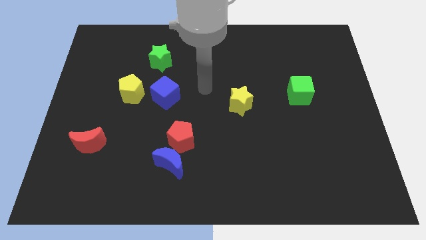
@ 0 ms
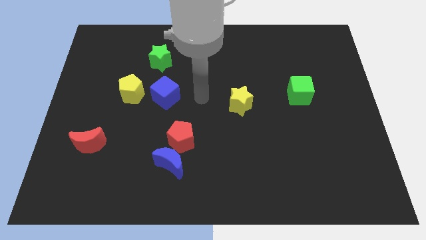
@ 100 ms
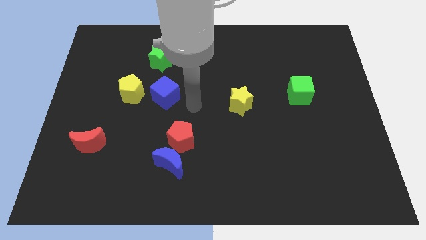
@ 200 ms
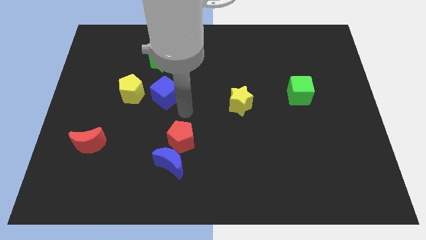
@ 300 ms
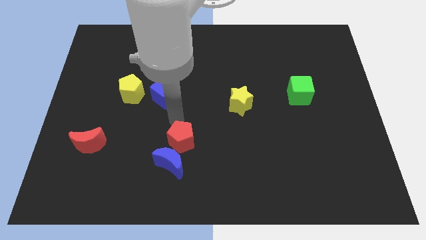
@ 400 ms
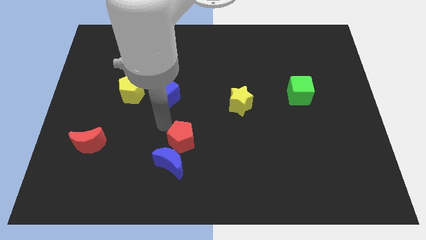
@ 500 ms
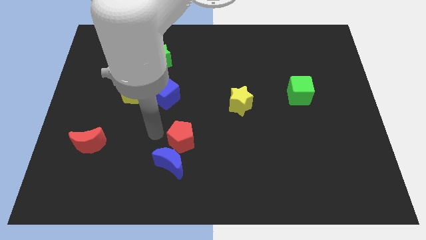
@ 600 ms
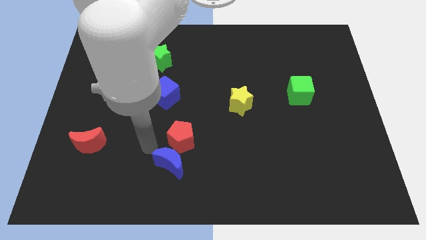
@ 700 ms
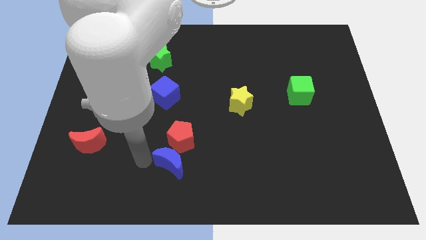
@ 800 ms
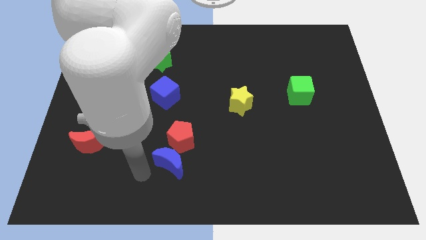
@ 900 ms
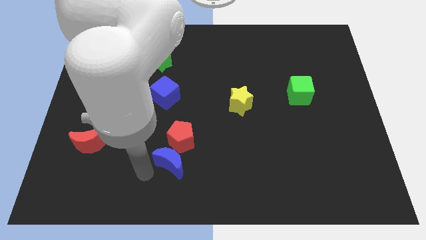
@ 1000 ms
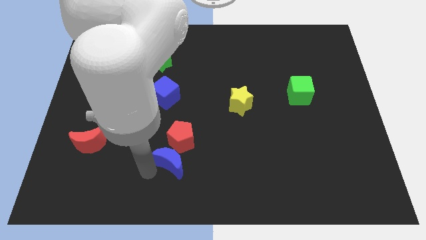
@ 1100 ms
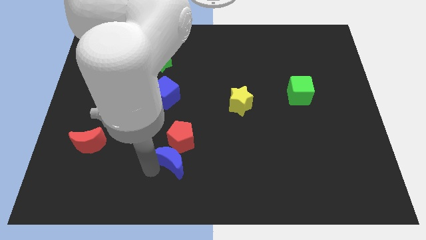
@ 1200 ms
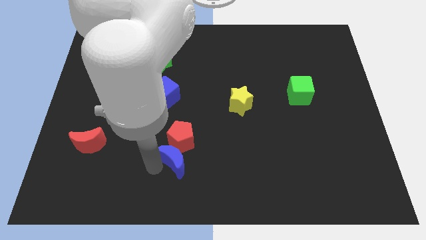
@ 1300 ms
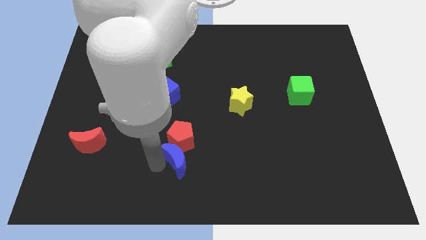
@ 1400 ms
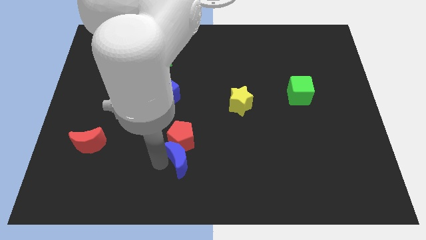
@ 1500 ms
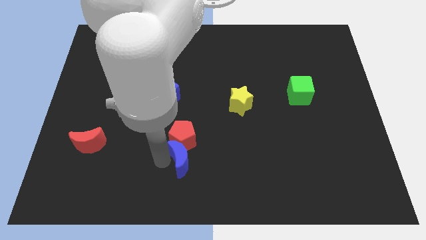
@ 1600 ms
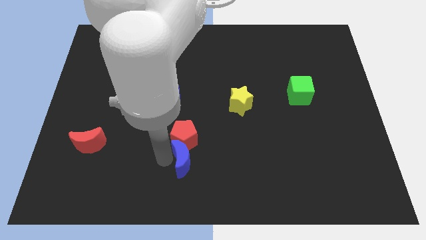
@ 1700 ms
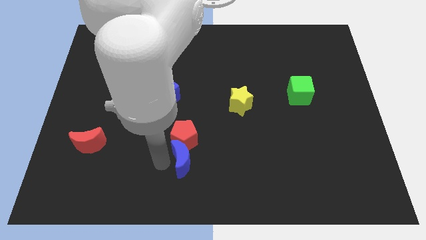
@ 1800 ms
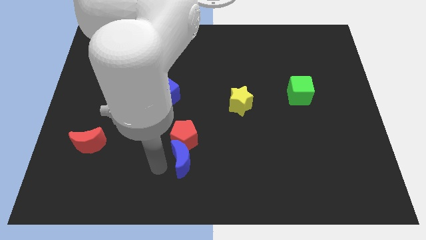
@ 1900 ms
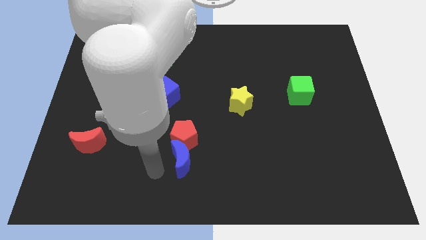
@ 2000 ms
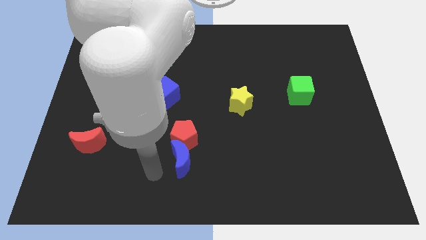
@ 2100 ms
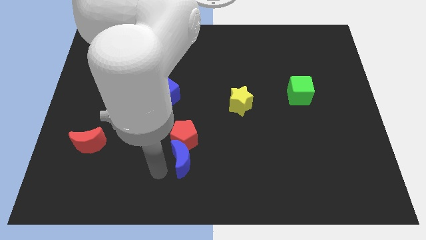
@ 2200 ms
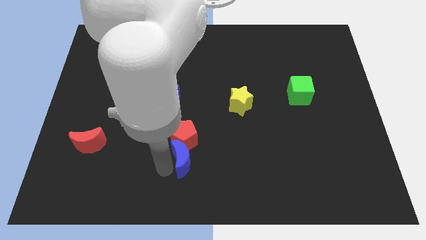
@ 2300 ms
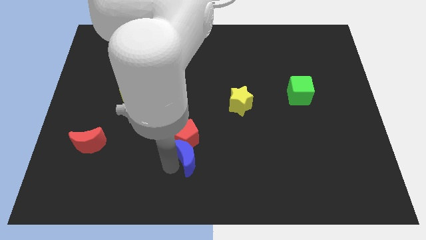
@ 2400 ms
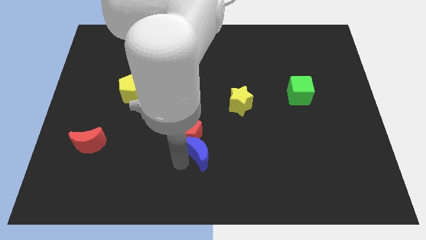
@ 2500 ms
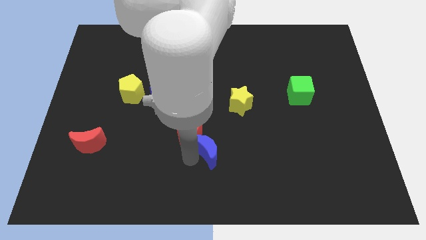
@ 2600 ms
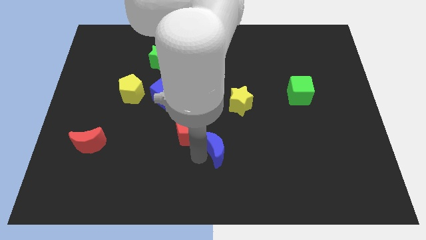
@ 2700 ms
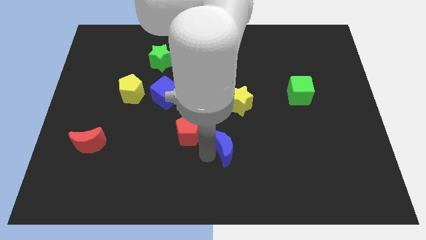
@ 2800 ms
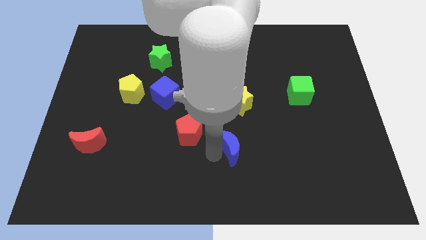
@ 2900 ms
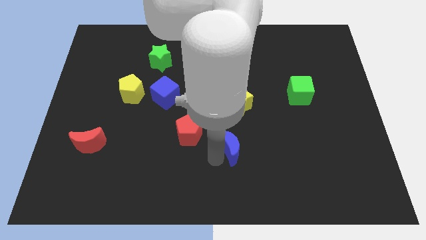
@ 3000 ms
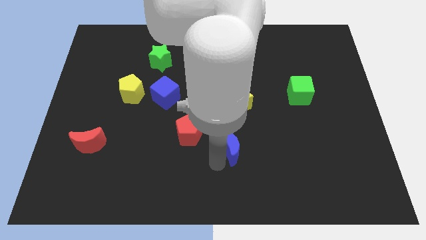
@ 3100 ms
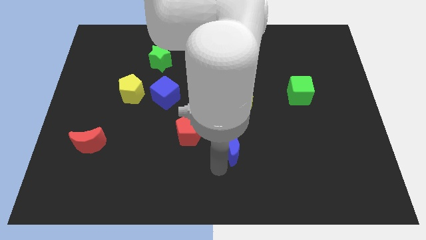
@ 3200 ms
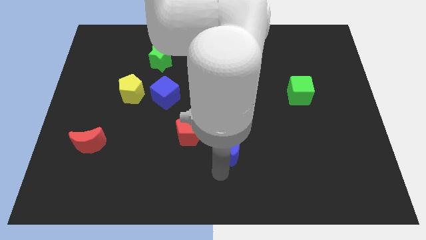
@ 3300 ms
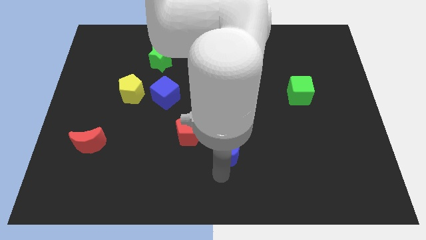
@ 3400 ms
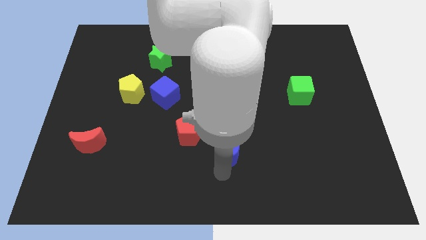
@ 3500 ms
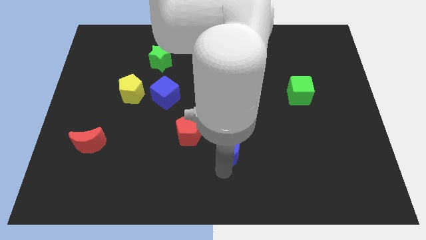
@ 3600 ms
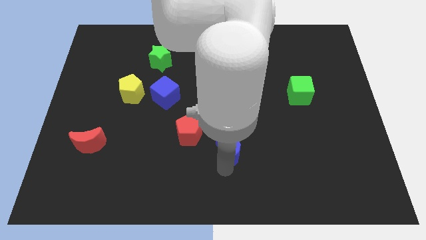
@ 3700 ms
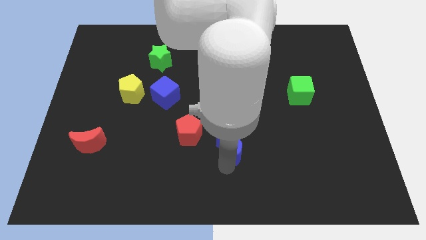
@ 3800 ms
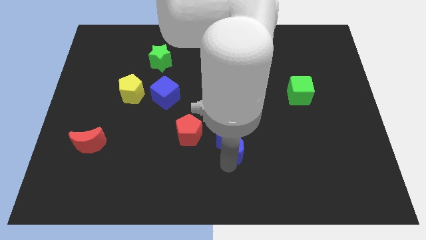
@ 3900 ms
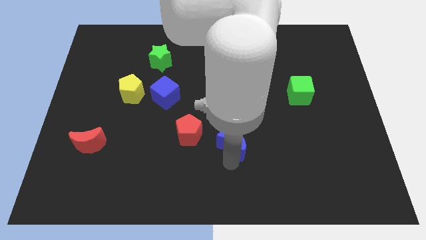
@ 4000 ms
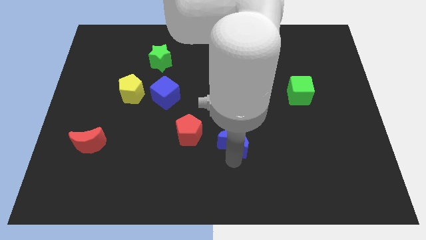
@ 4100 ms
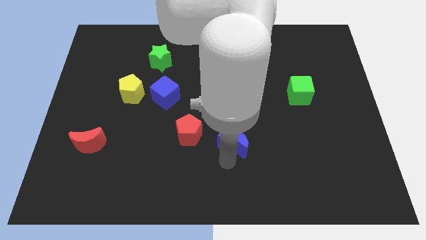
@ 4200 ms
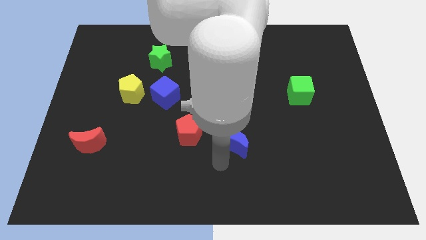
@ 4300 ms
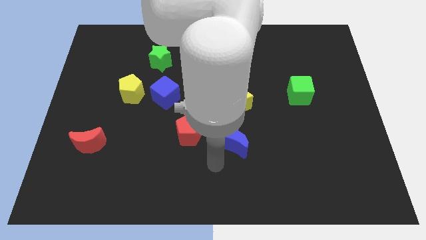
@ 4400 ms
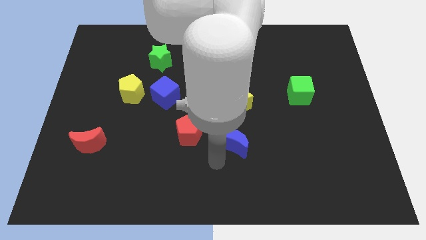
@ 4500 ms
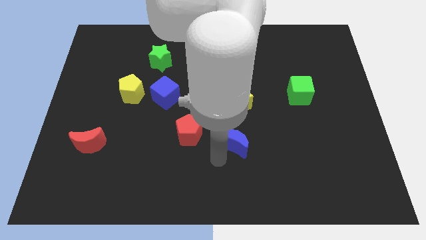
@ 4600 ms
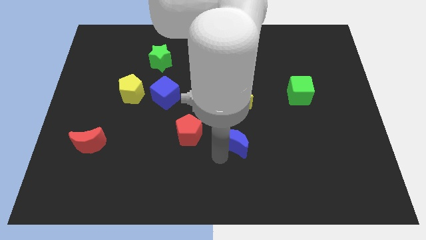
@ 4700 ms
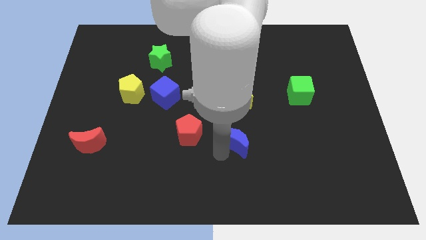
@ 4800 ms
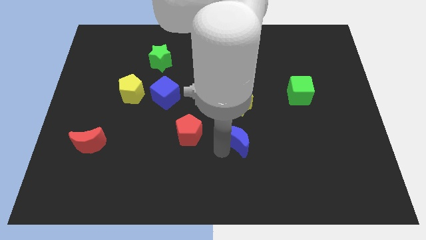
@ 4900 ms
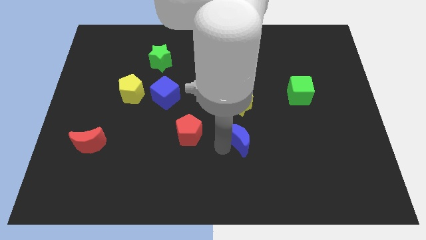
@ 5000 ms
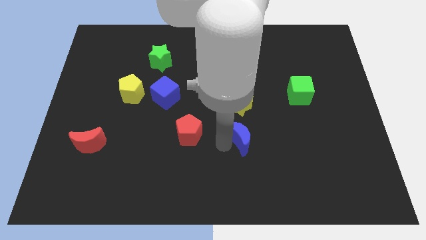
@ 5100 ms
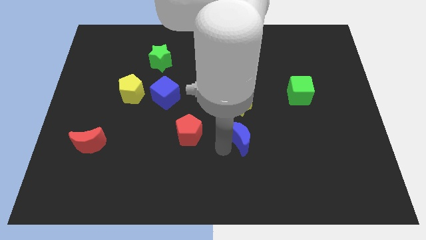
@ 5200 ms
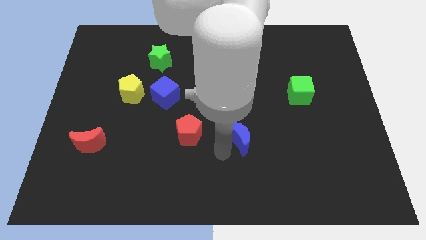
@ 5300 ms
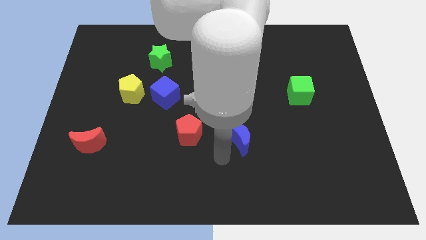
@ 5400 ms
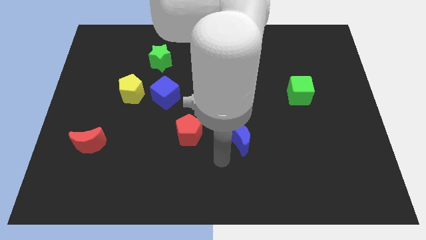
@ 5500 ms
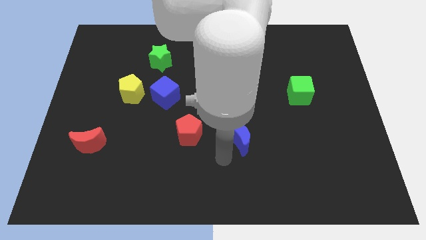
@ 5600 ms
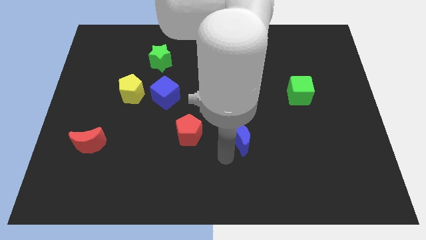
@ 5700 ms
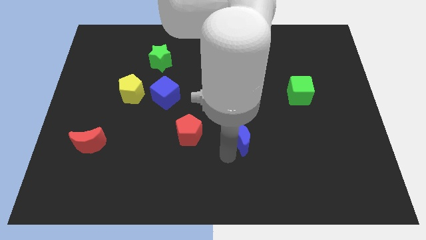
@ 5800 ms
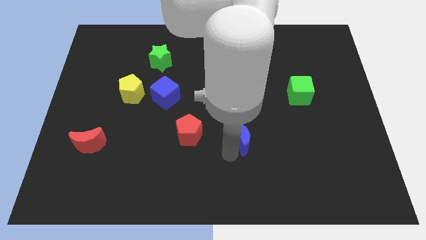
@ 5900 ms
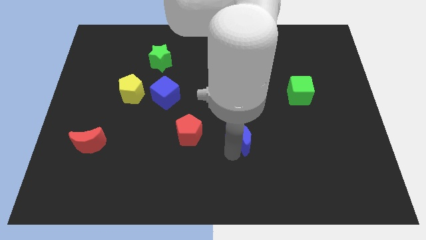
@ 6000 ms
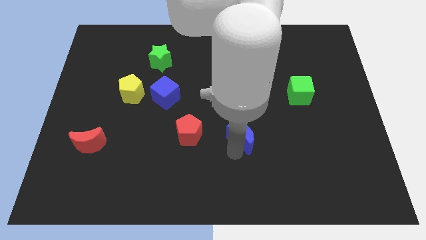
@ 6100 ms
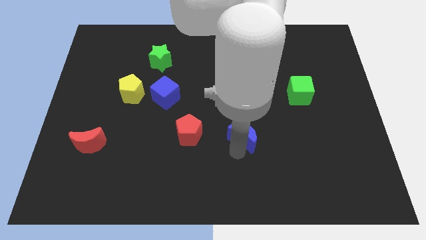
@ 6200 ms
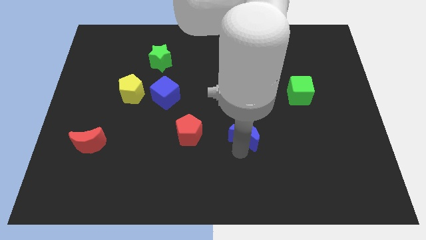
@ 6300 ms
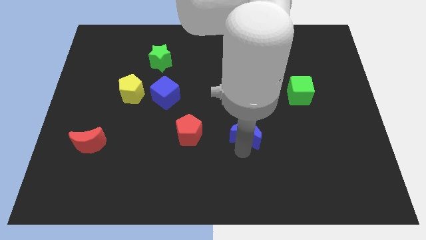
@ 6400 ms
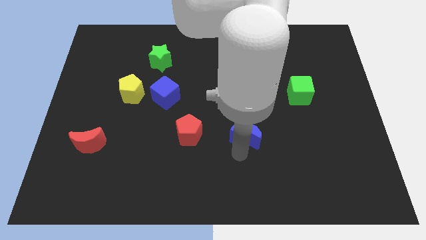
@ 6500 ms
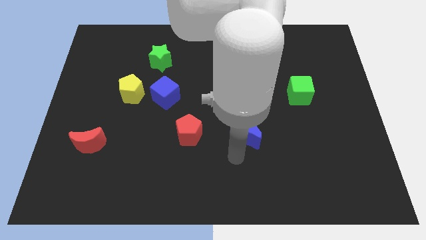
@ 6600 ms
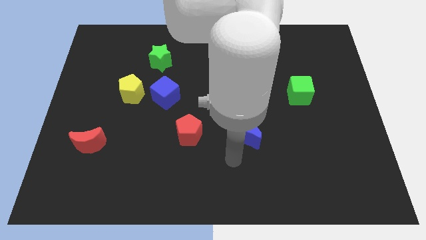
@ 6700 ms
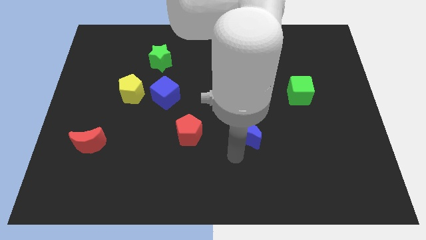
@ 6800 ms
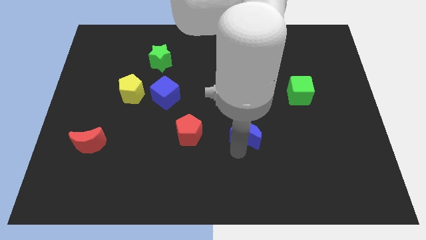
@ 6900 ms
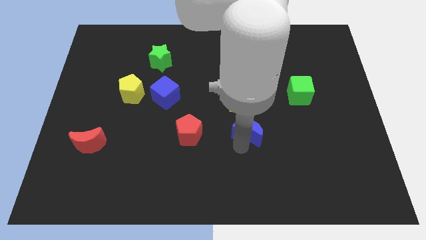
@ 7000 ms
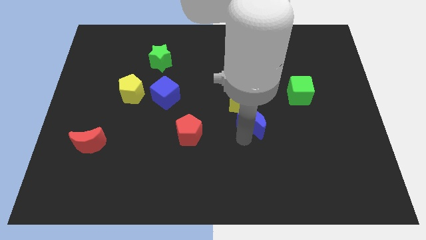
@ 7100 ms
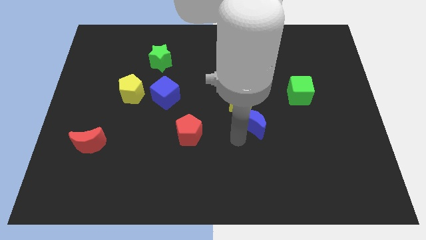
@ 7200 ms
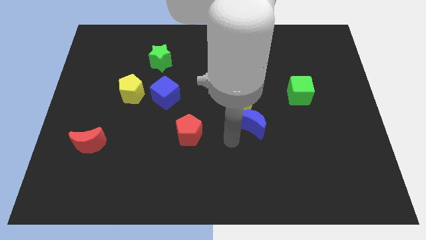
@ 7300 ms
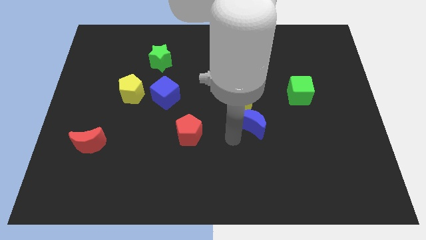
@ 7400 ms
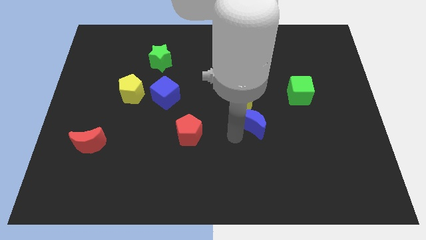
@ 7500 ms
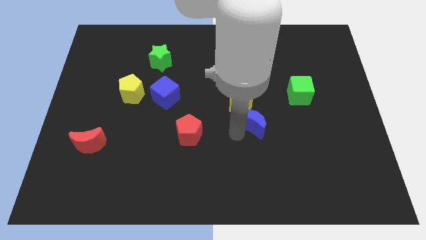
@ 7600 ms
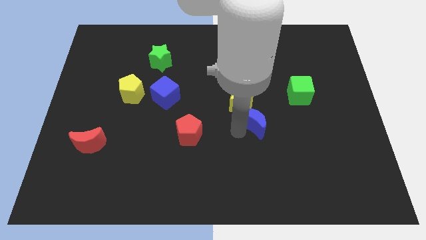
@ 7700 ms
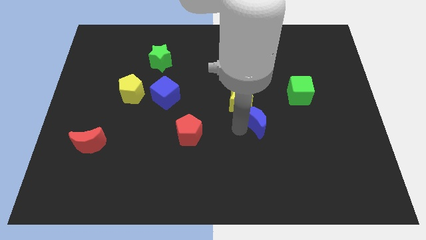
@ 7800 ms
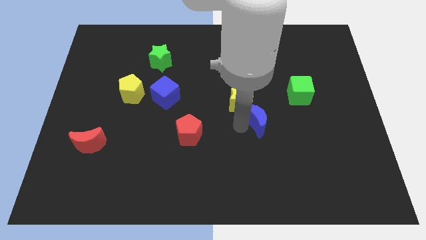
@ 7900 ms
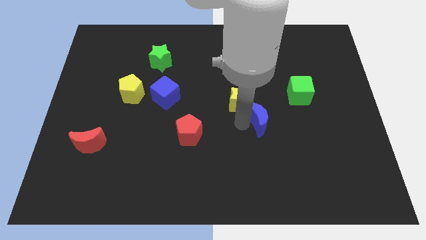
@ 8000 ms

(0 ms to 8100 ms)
push the blue moon up and right diagonally
